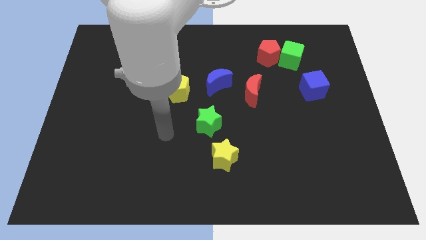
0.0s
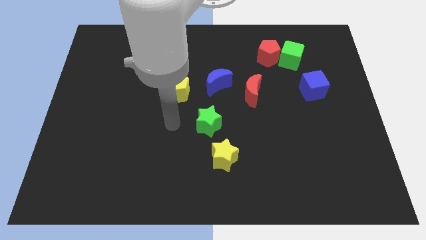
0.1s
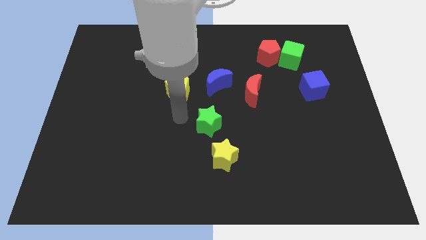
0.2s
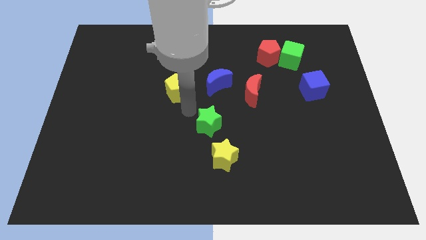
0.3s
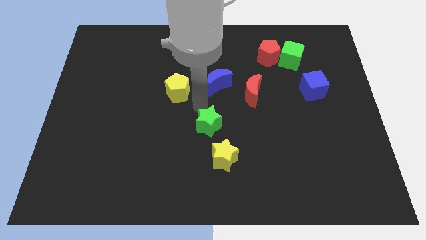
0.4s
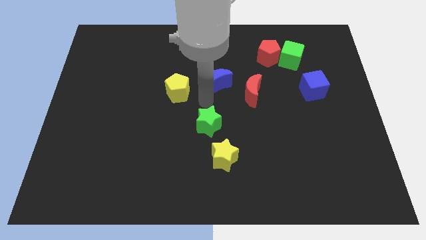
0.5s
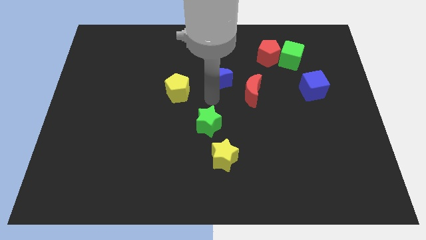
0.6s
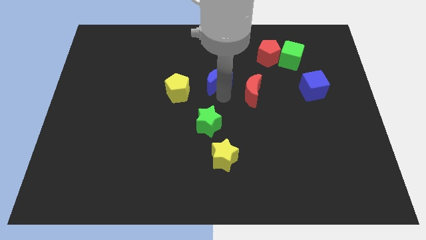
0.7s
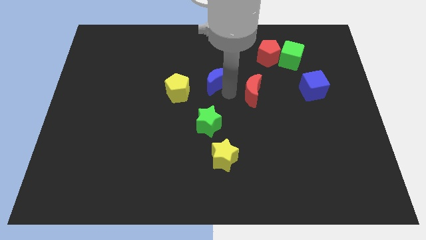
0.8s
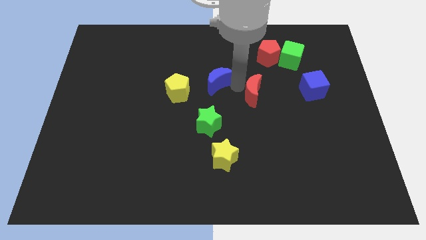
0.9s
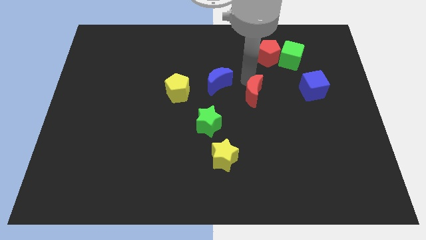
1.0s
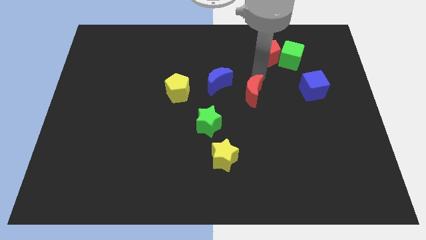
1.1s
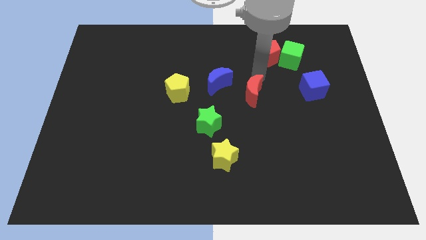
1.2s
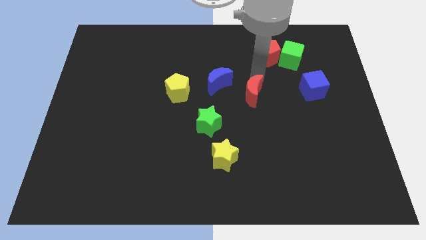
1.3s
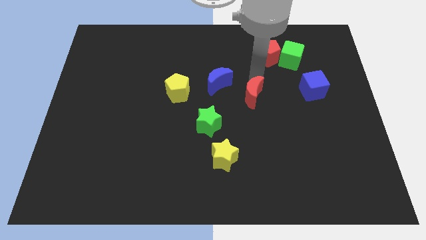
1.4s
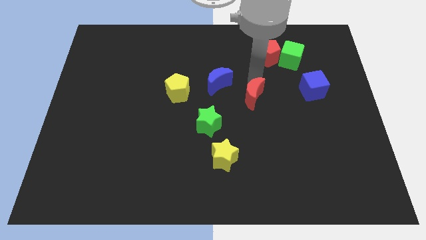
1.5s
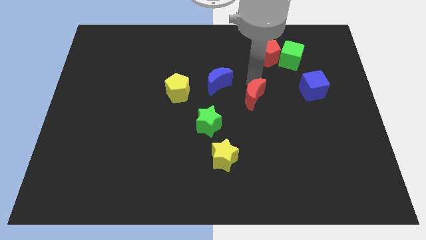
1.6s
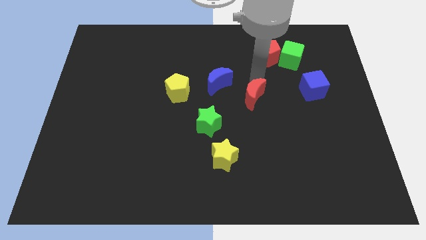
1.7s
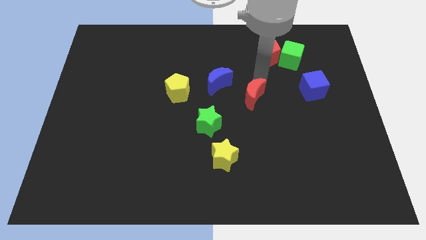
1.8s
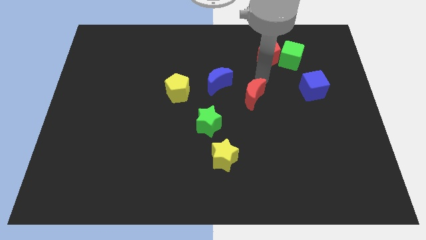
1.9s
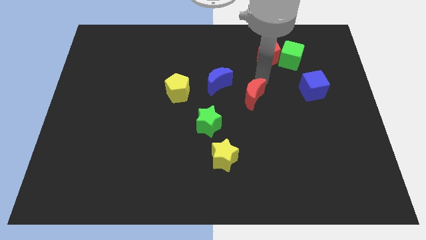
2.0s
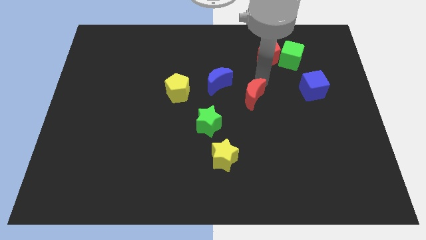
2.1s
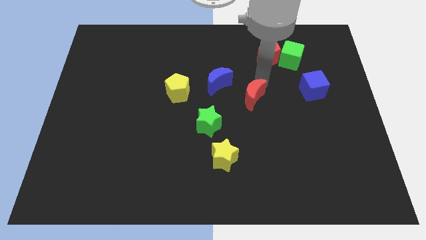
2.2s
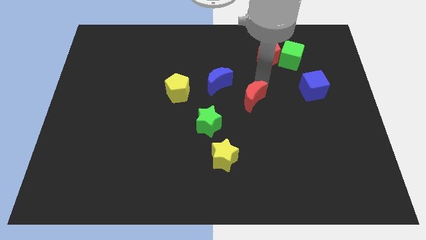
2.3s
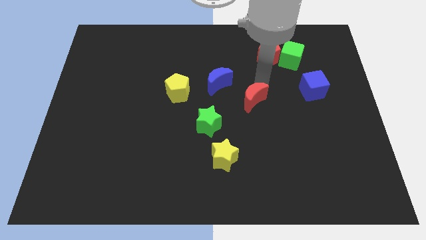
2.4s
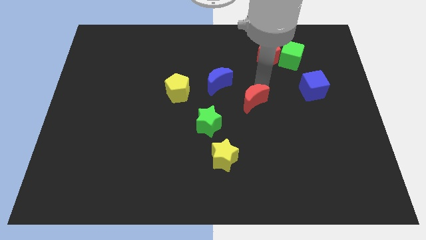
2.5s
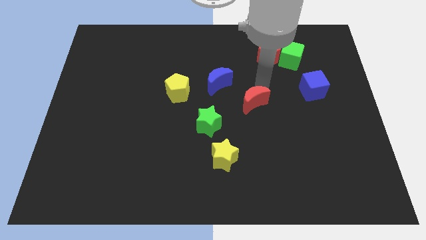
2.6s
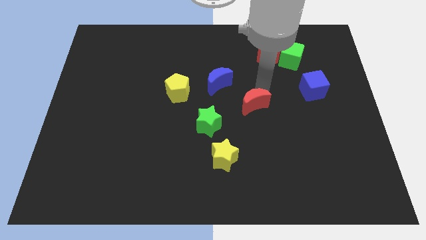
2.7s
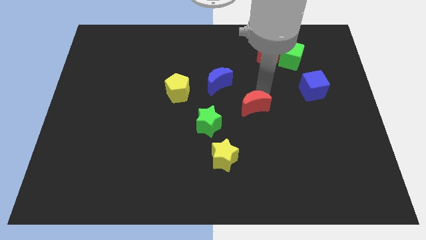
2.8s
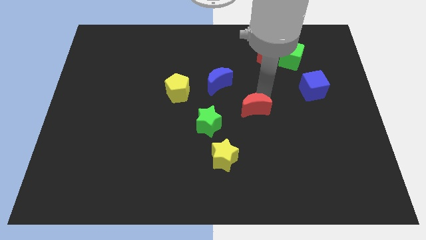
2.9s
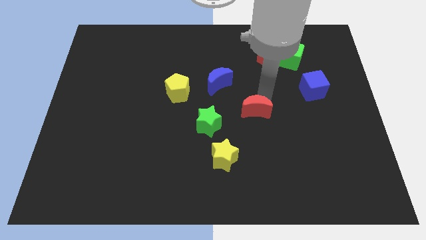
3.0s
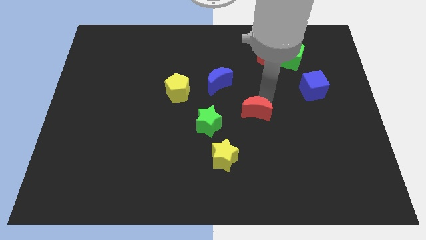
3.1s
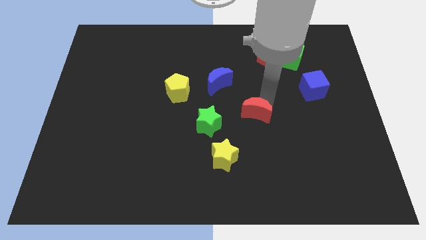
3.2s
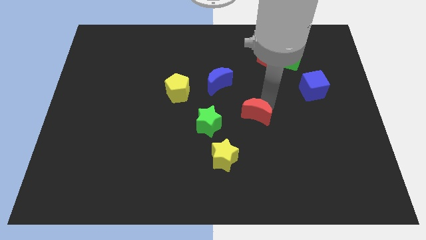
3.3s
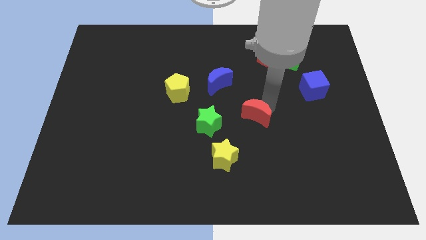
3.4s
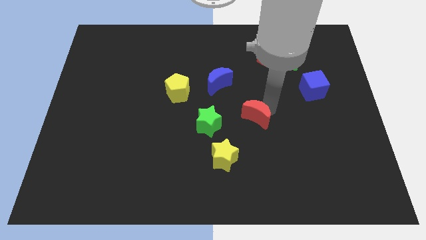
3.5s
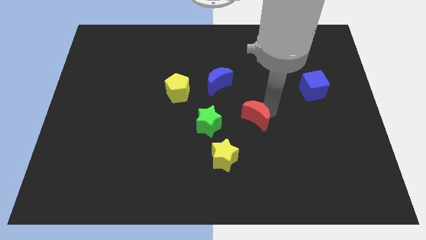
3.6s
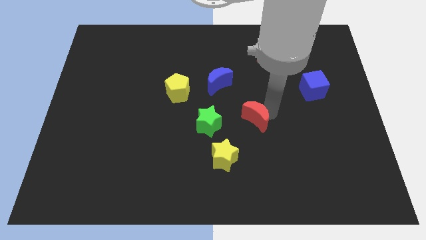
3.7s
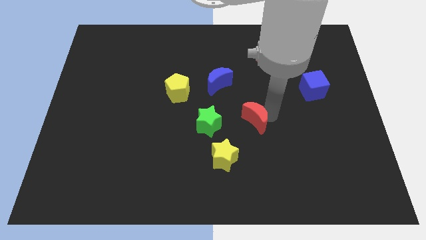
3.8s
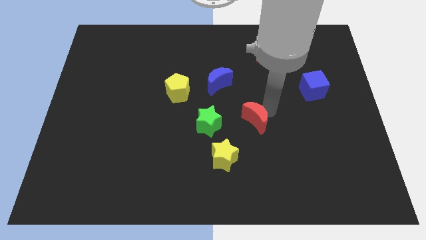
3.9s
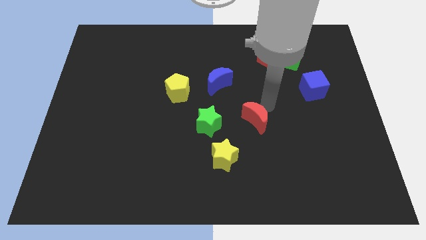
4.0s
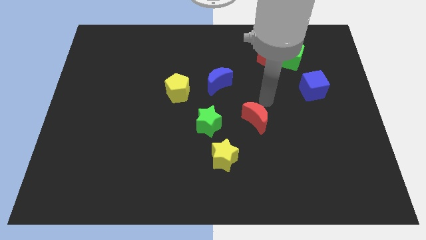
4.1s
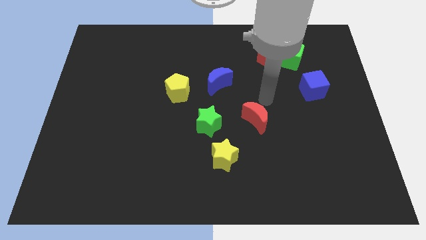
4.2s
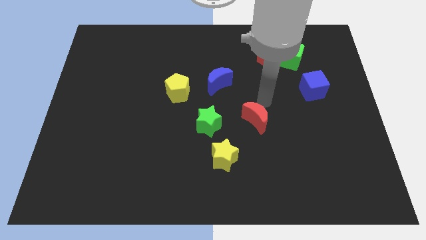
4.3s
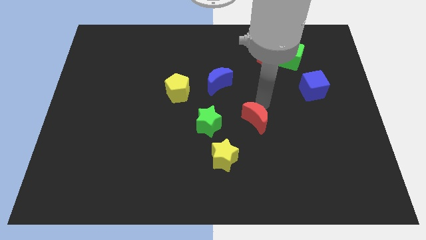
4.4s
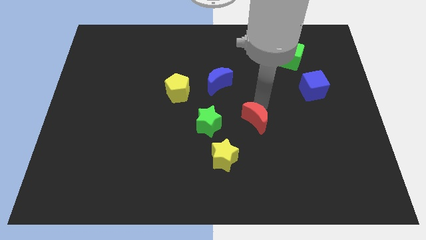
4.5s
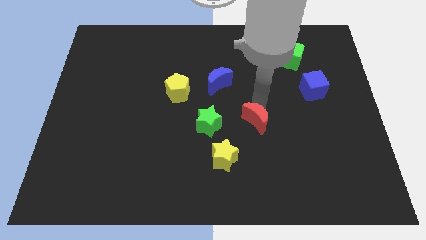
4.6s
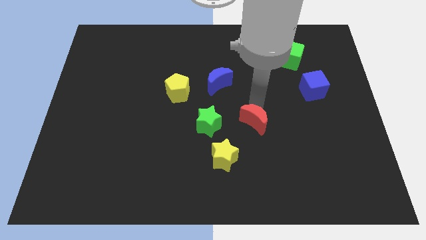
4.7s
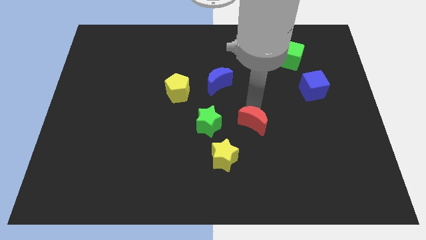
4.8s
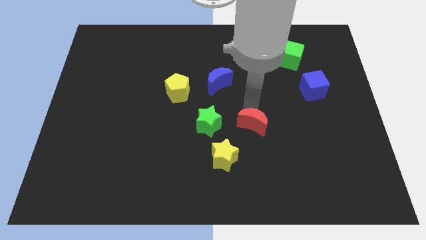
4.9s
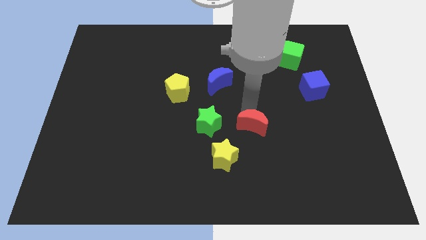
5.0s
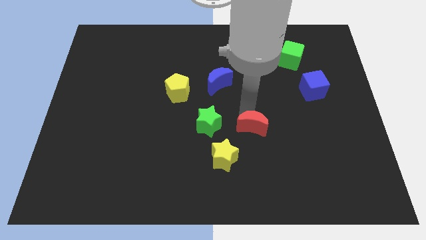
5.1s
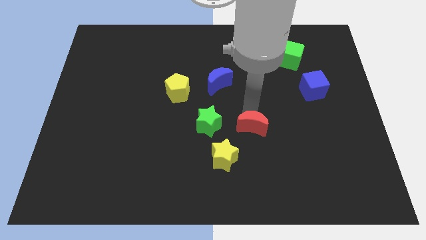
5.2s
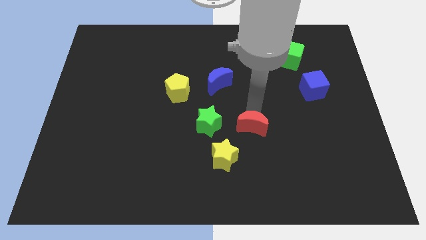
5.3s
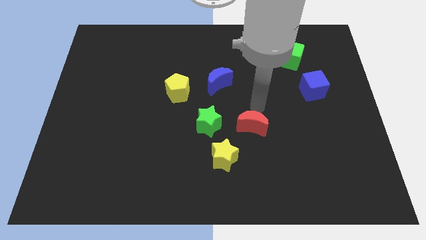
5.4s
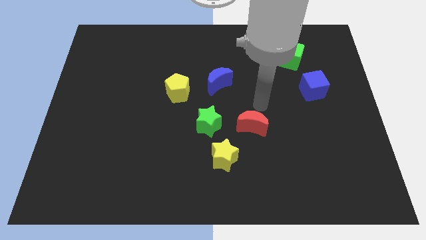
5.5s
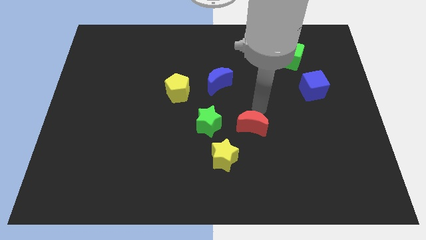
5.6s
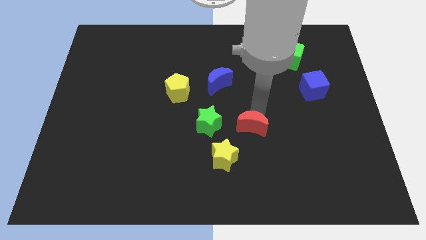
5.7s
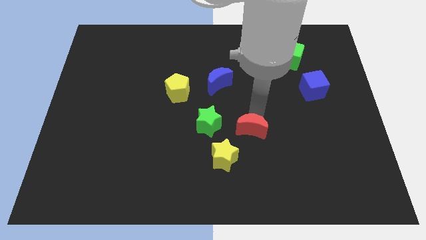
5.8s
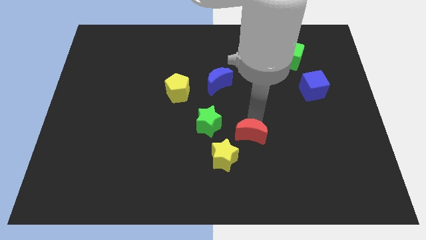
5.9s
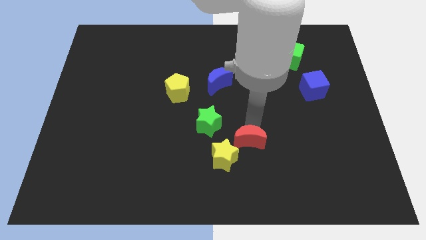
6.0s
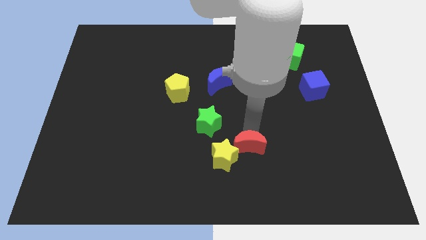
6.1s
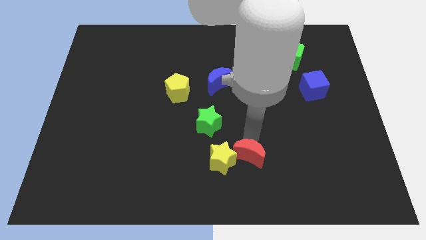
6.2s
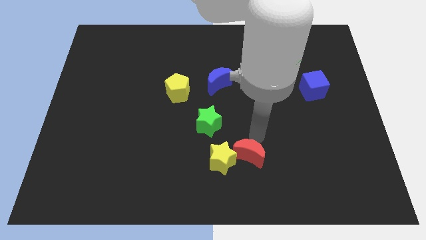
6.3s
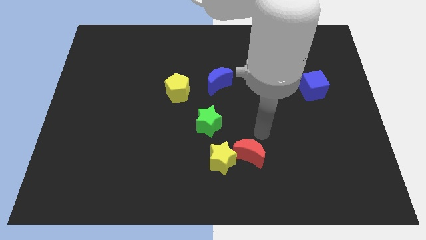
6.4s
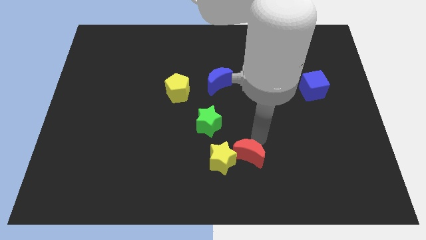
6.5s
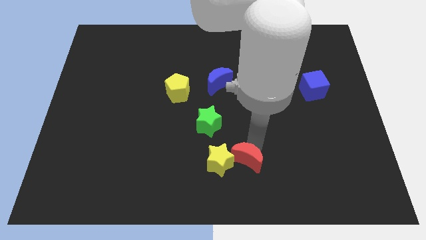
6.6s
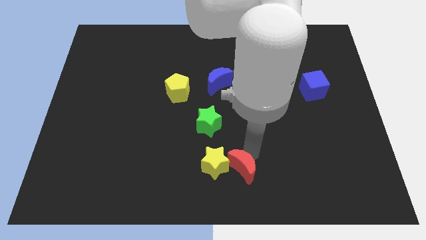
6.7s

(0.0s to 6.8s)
put the red moon to the bottom
